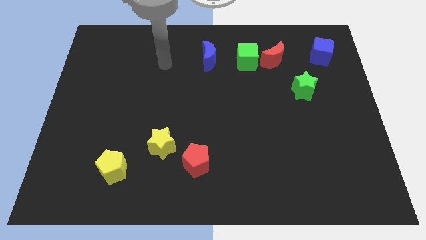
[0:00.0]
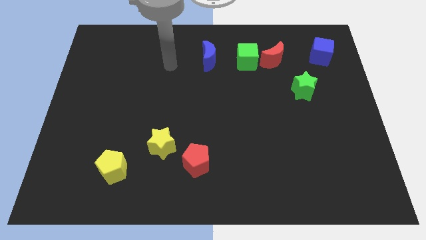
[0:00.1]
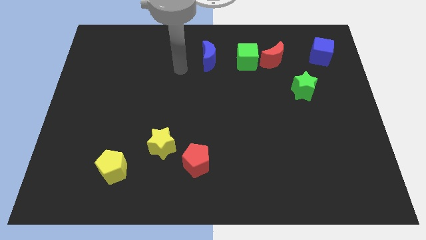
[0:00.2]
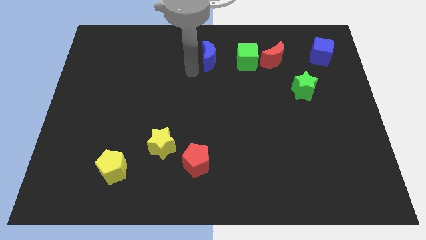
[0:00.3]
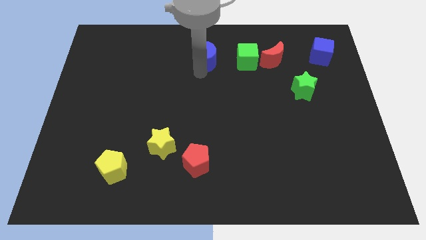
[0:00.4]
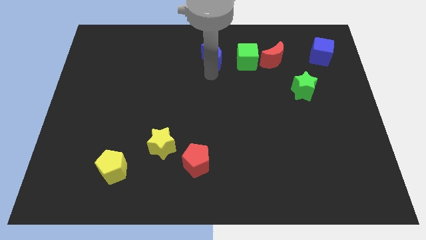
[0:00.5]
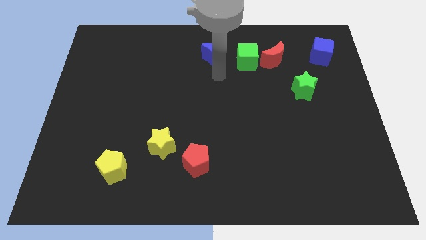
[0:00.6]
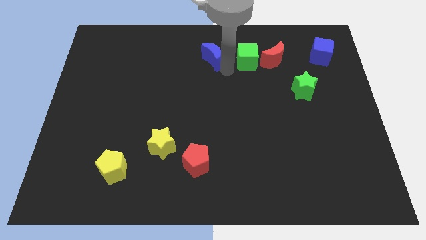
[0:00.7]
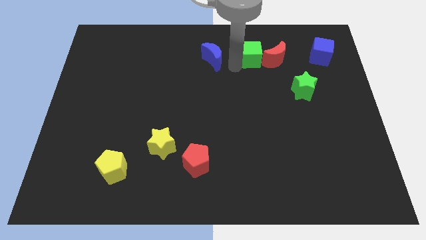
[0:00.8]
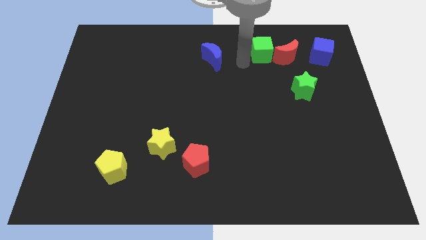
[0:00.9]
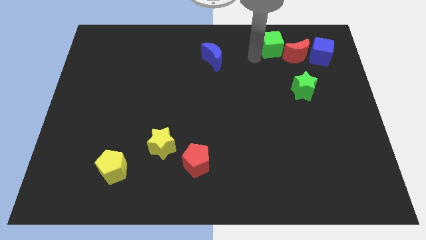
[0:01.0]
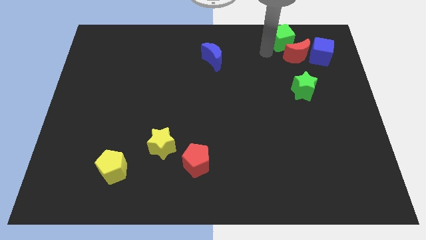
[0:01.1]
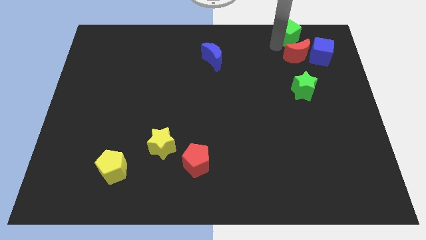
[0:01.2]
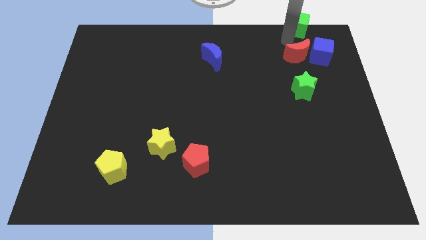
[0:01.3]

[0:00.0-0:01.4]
pull the red moon apart from the green cube

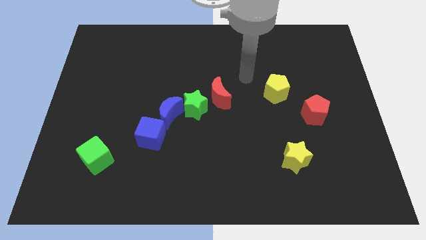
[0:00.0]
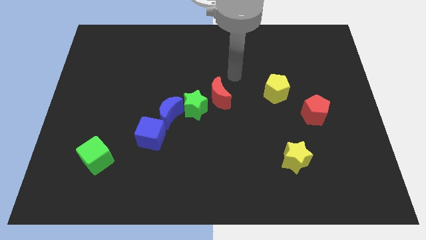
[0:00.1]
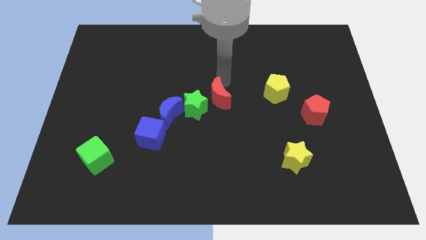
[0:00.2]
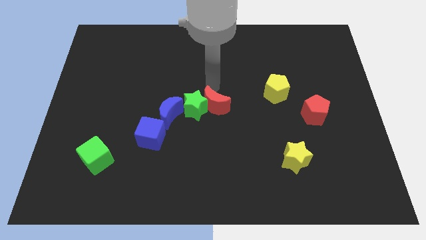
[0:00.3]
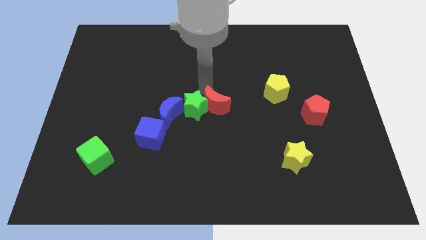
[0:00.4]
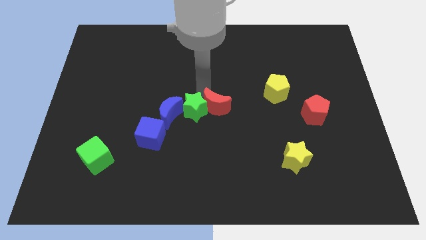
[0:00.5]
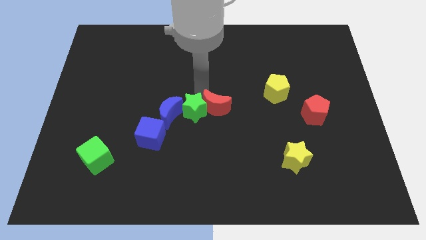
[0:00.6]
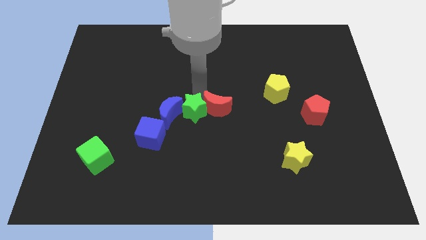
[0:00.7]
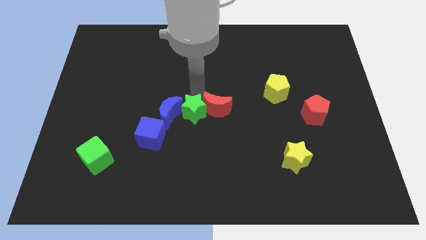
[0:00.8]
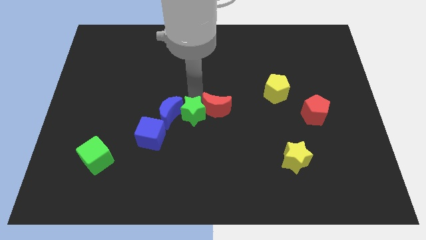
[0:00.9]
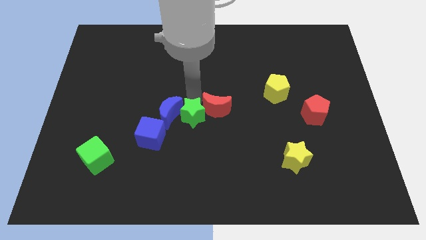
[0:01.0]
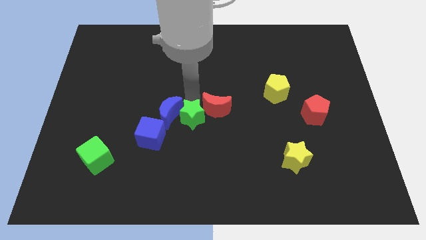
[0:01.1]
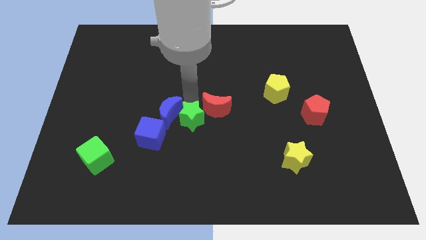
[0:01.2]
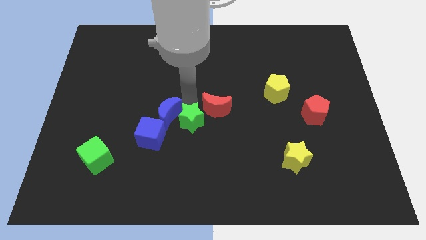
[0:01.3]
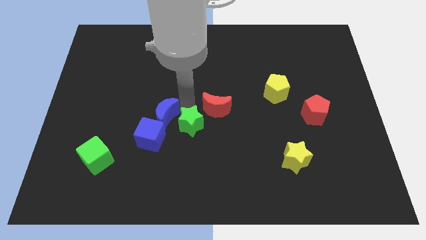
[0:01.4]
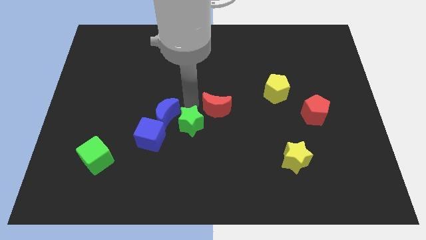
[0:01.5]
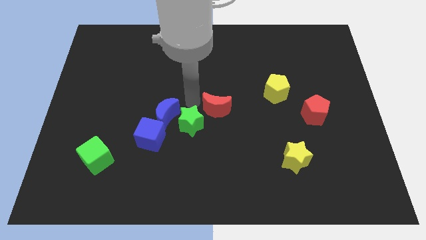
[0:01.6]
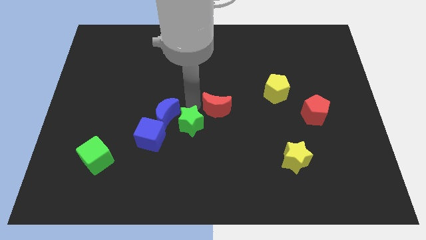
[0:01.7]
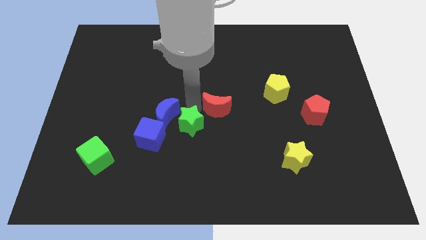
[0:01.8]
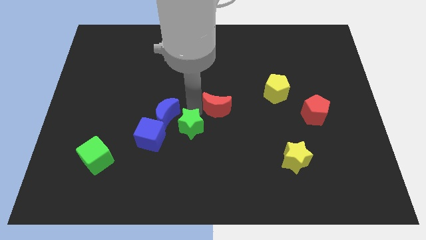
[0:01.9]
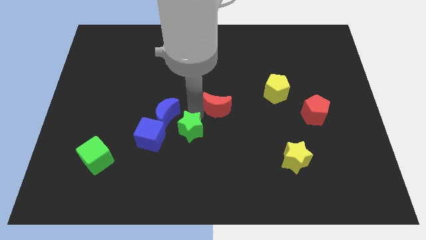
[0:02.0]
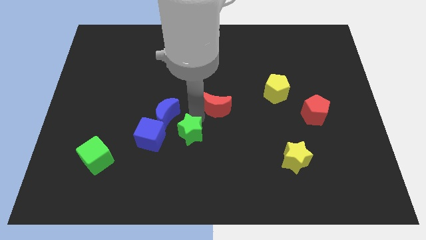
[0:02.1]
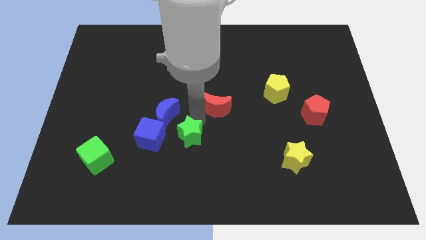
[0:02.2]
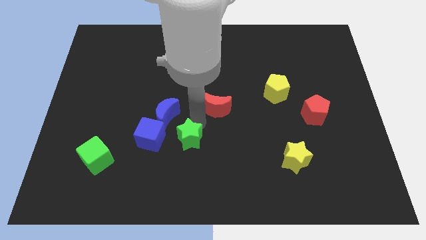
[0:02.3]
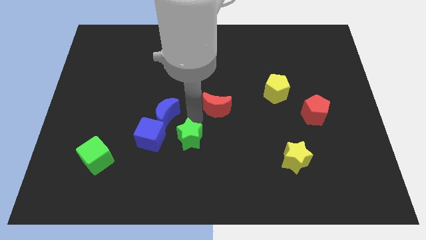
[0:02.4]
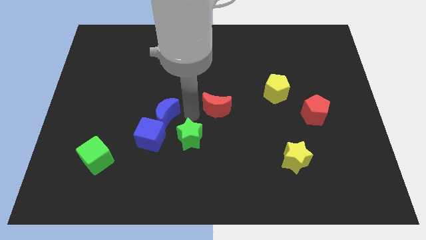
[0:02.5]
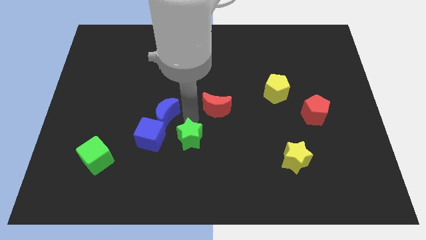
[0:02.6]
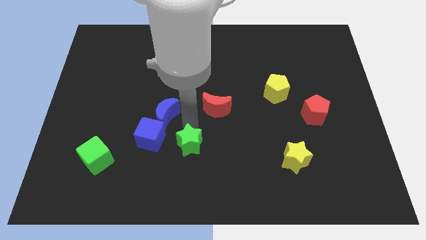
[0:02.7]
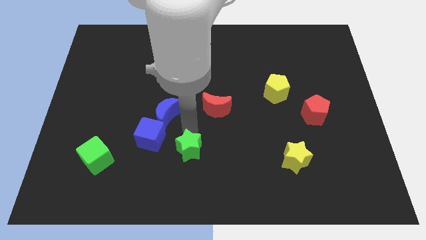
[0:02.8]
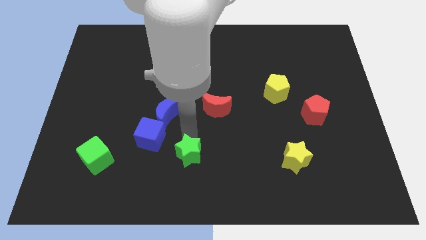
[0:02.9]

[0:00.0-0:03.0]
separate the green star from the blue moon and red moon

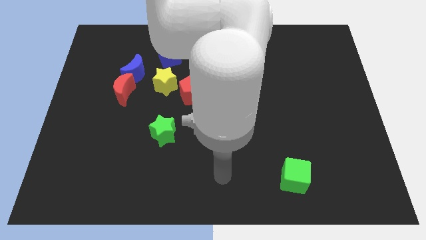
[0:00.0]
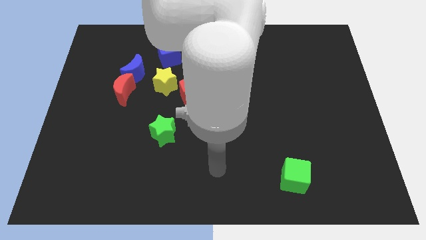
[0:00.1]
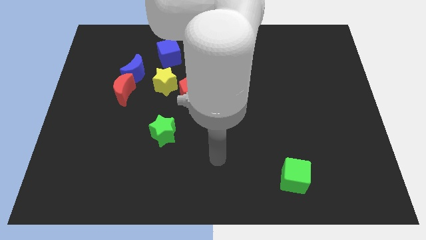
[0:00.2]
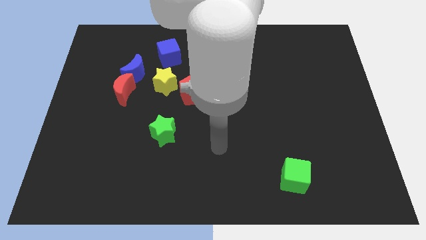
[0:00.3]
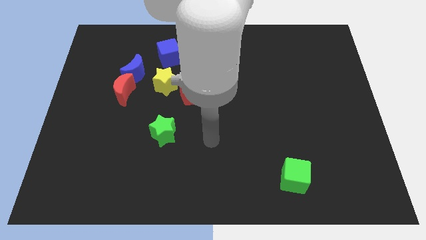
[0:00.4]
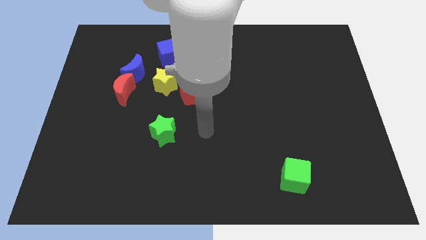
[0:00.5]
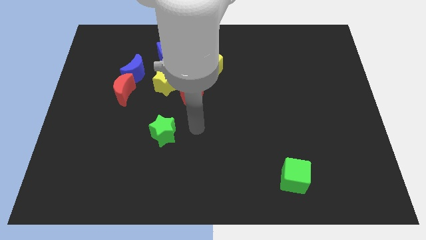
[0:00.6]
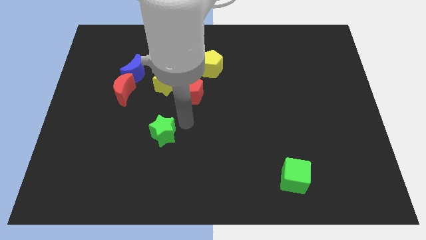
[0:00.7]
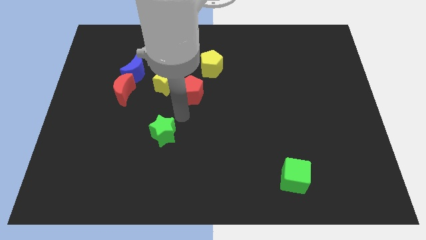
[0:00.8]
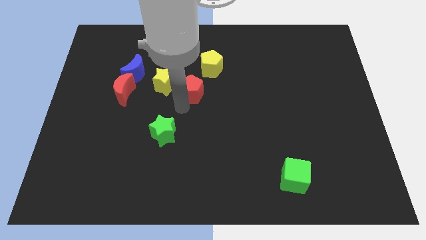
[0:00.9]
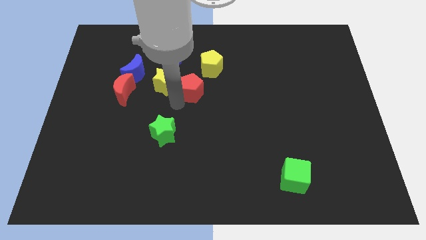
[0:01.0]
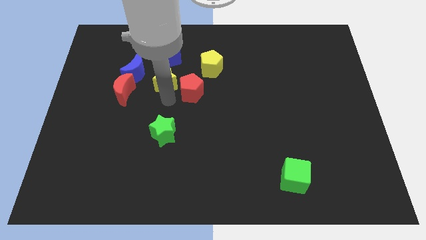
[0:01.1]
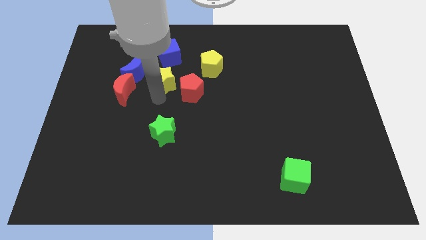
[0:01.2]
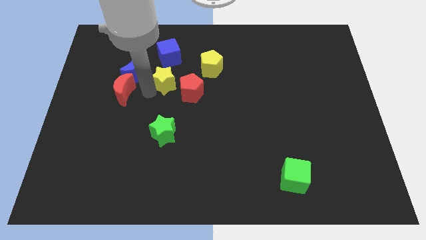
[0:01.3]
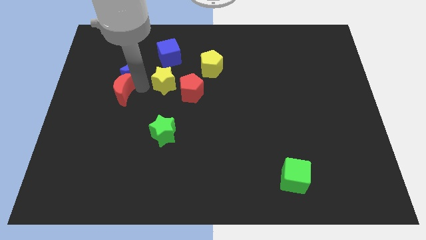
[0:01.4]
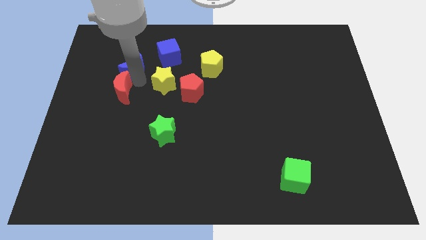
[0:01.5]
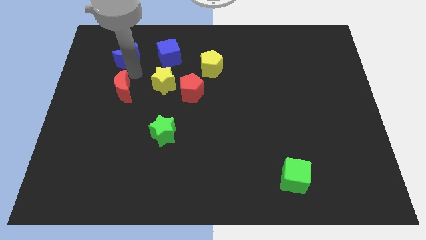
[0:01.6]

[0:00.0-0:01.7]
move the red moon away from the blue moon

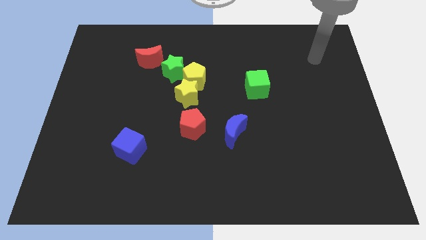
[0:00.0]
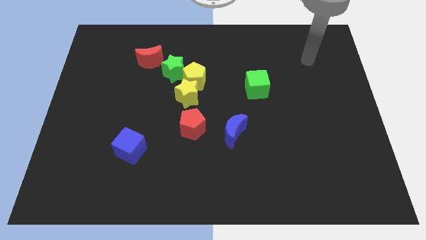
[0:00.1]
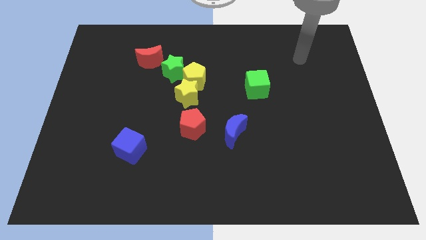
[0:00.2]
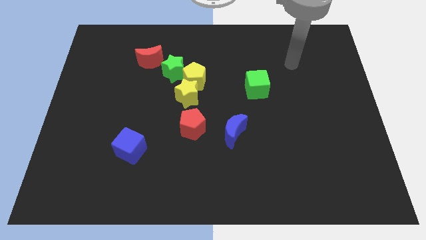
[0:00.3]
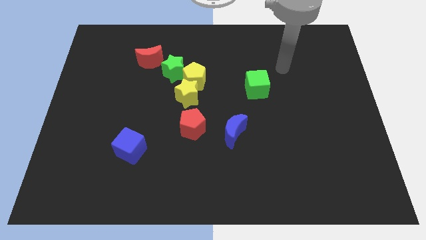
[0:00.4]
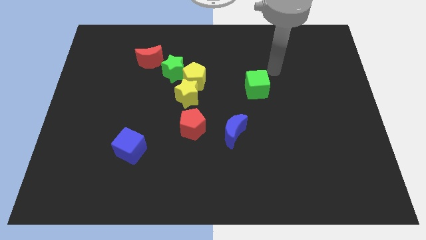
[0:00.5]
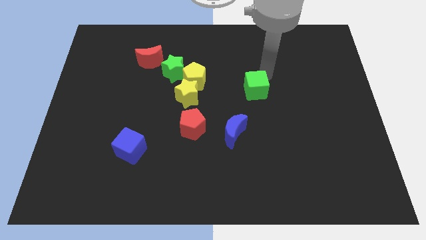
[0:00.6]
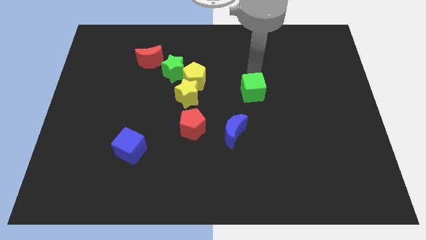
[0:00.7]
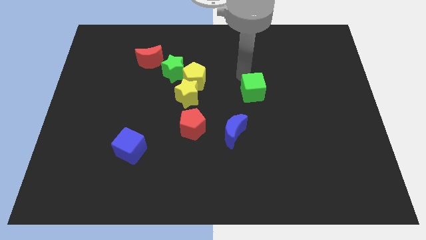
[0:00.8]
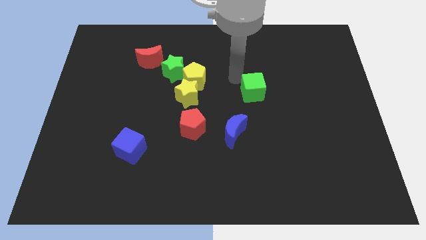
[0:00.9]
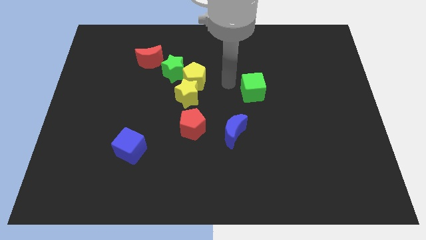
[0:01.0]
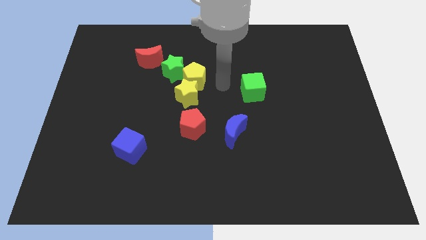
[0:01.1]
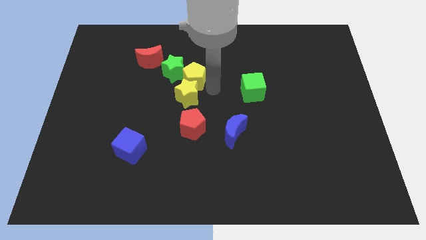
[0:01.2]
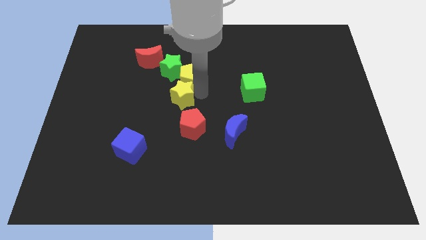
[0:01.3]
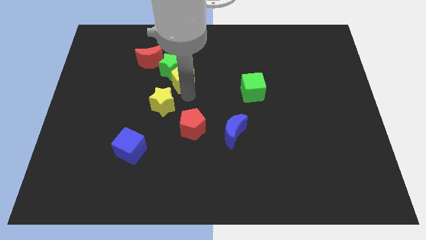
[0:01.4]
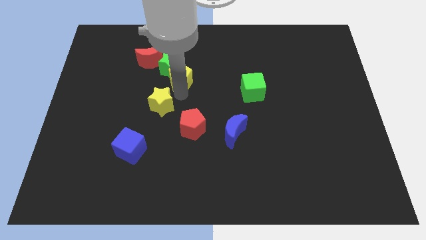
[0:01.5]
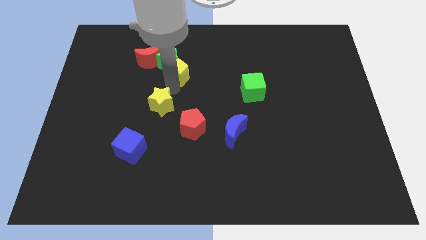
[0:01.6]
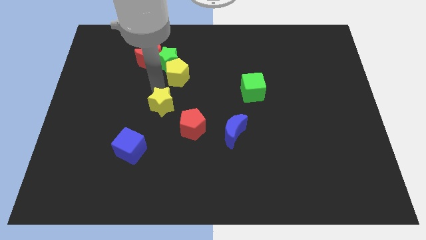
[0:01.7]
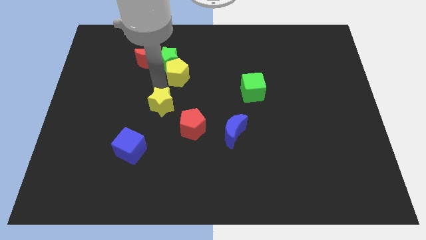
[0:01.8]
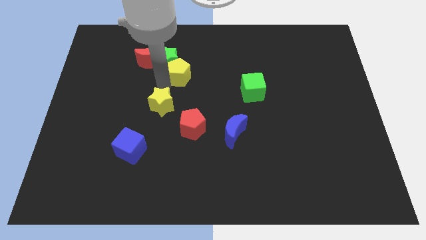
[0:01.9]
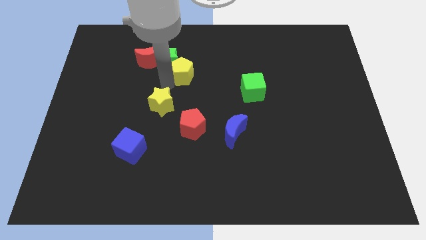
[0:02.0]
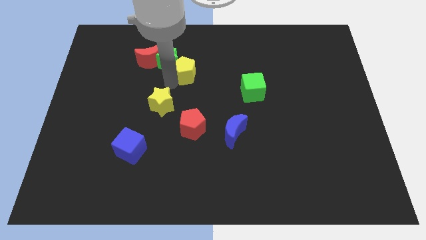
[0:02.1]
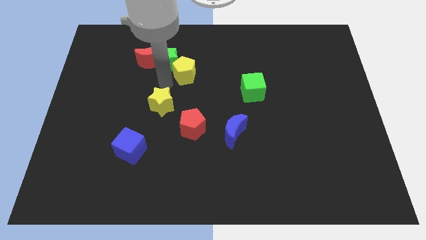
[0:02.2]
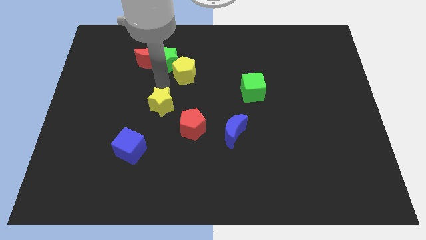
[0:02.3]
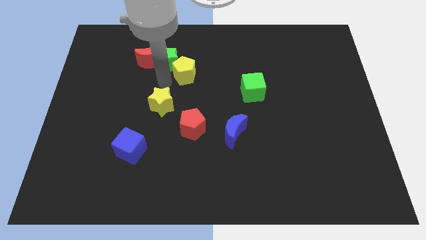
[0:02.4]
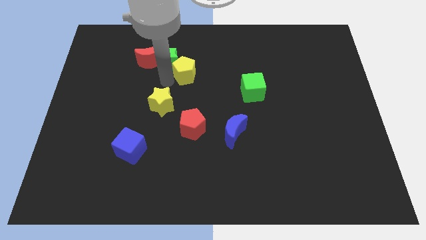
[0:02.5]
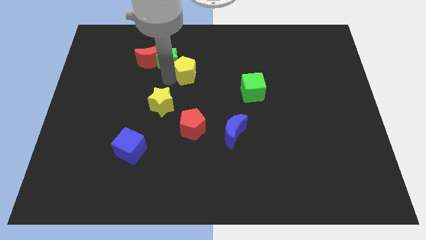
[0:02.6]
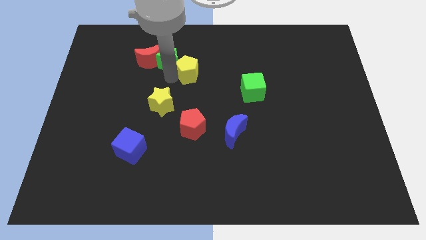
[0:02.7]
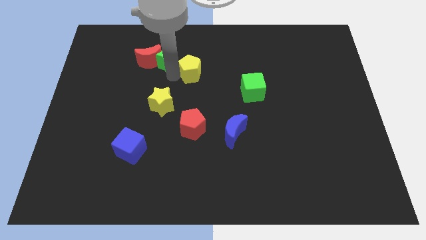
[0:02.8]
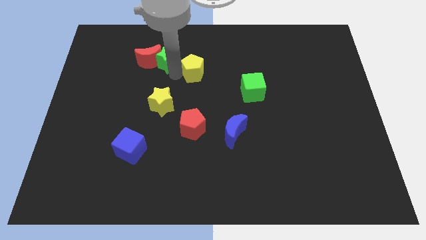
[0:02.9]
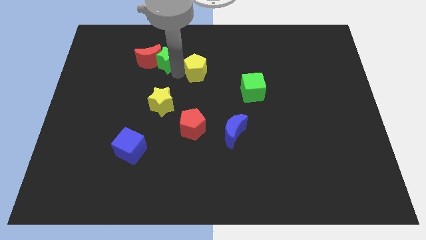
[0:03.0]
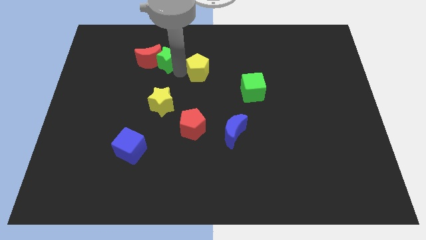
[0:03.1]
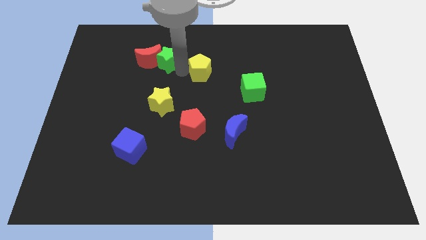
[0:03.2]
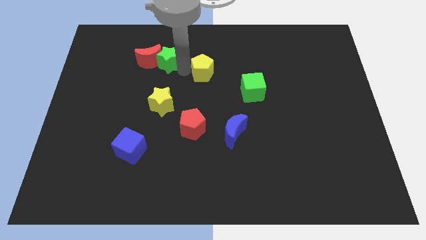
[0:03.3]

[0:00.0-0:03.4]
move the yellow pentagon away from the yellow star and green star
